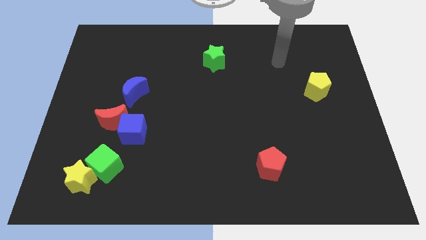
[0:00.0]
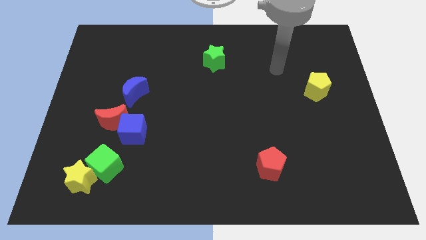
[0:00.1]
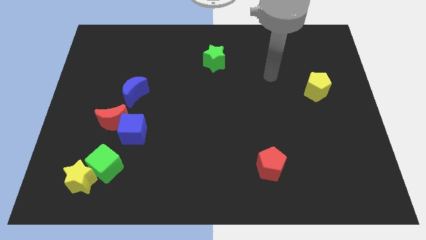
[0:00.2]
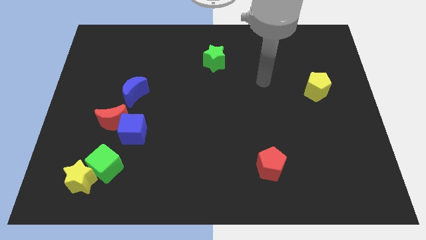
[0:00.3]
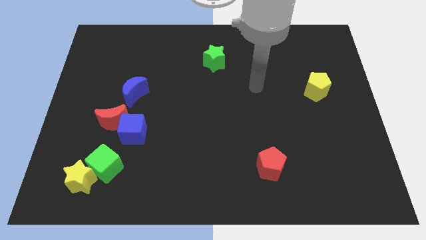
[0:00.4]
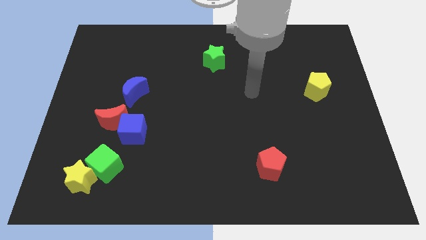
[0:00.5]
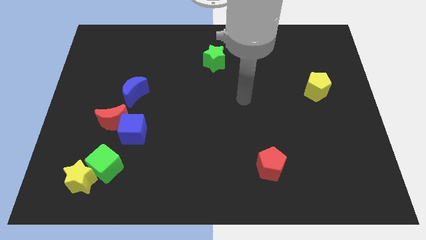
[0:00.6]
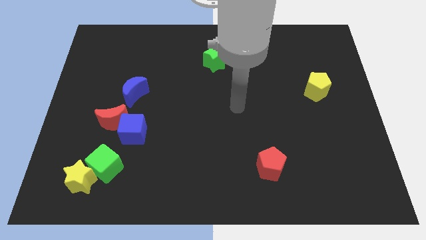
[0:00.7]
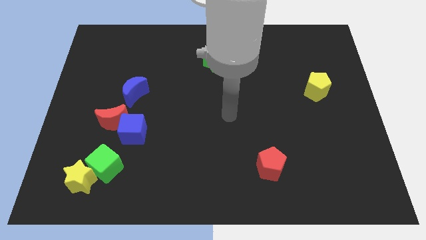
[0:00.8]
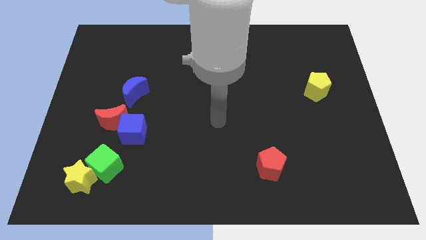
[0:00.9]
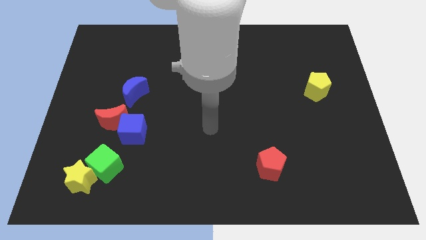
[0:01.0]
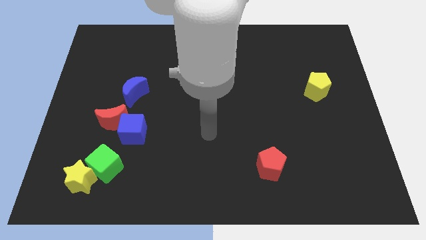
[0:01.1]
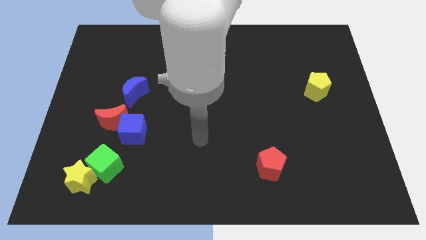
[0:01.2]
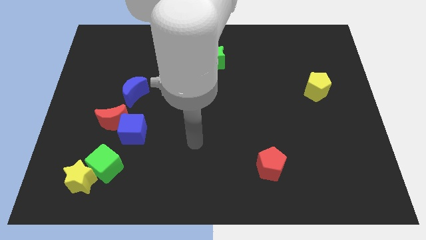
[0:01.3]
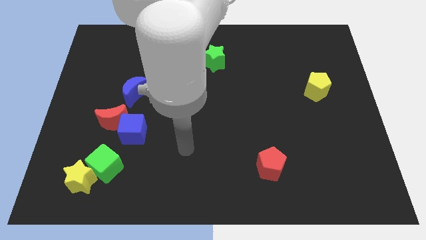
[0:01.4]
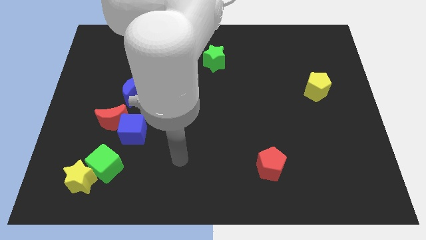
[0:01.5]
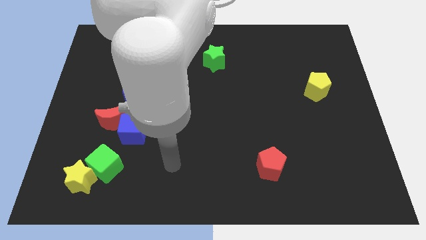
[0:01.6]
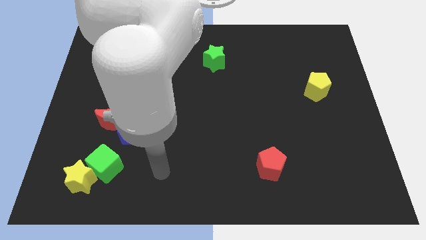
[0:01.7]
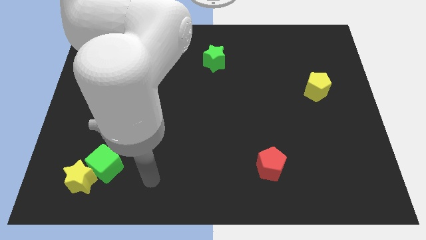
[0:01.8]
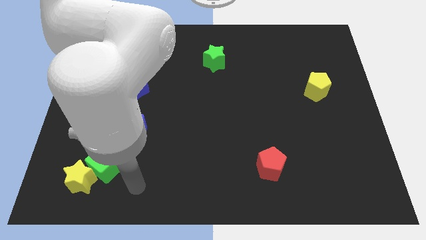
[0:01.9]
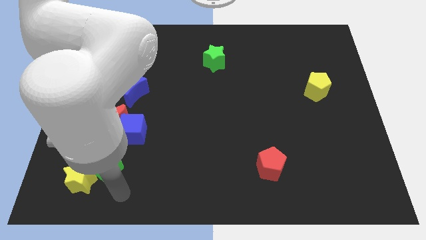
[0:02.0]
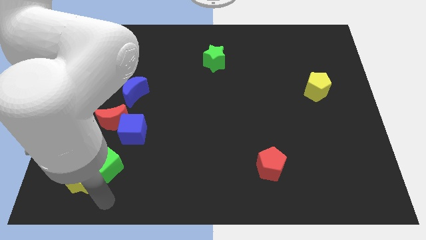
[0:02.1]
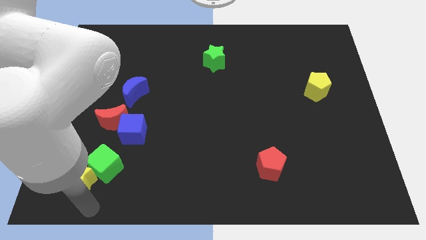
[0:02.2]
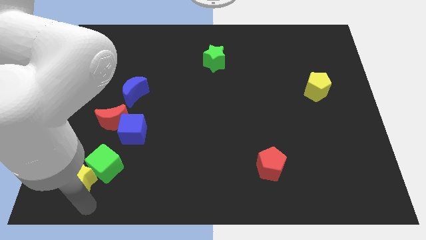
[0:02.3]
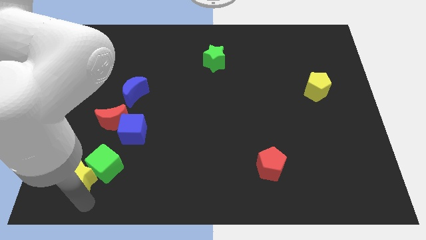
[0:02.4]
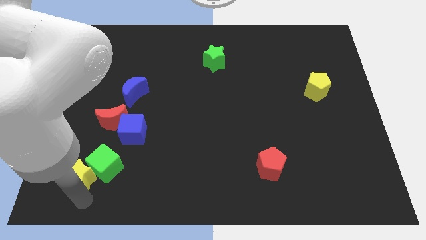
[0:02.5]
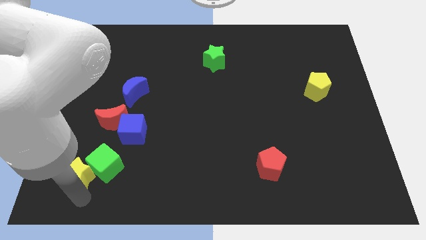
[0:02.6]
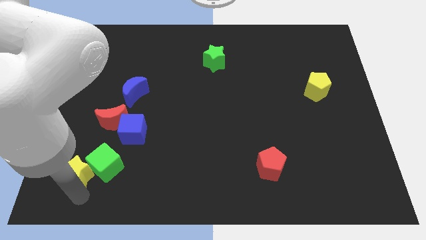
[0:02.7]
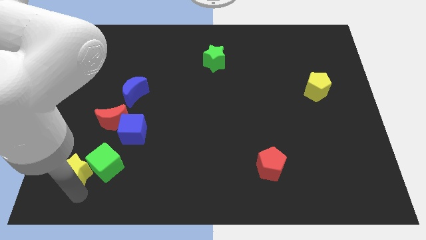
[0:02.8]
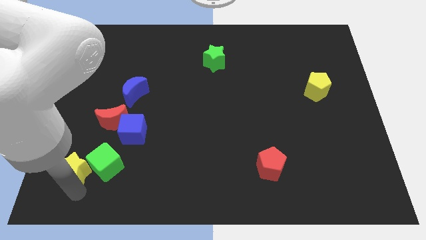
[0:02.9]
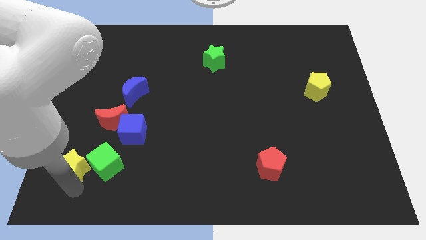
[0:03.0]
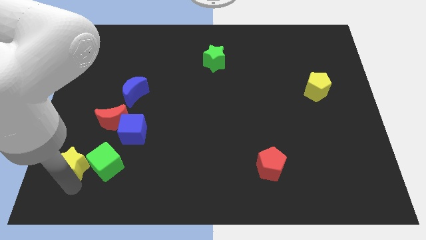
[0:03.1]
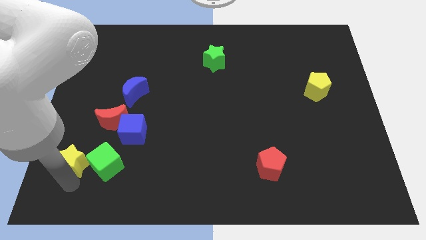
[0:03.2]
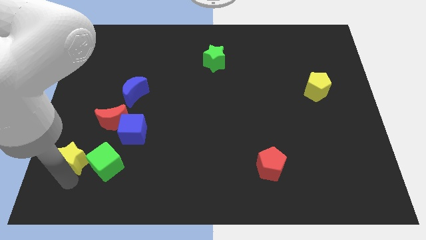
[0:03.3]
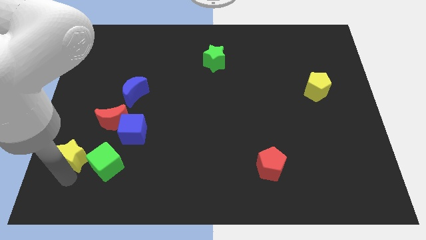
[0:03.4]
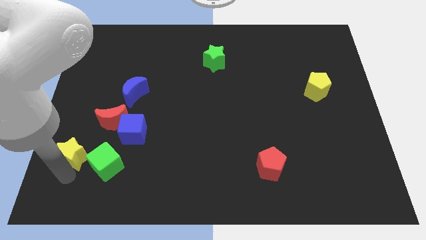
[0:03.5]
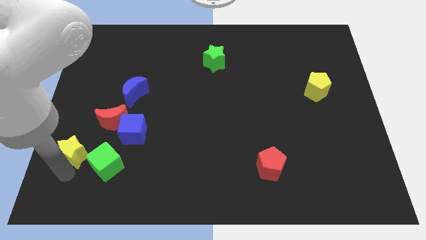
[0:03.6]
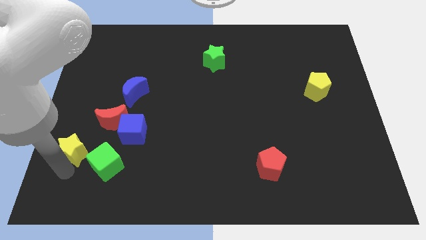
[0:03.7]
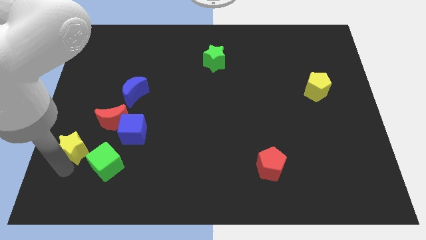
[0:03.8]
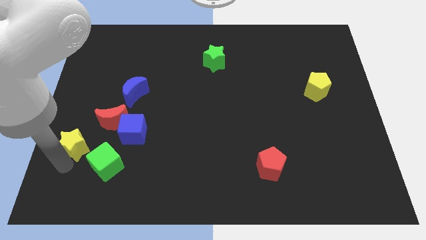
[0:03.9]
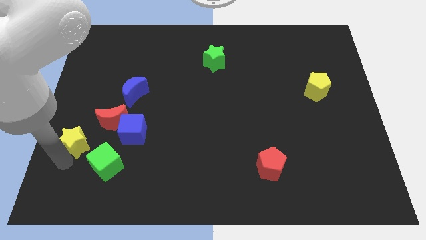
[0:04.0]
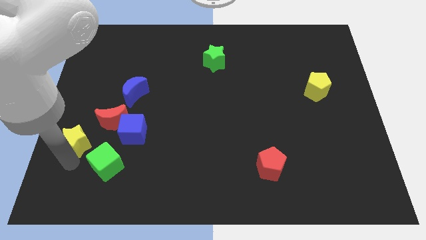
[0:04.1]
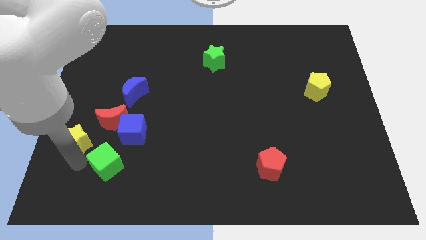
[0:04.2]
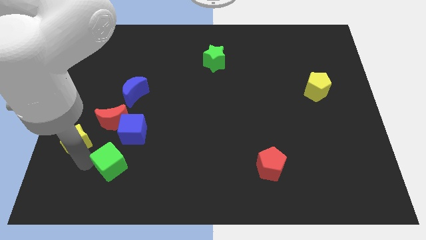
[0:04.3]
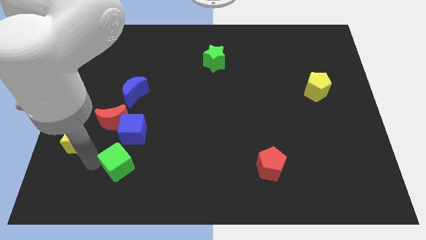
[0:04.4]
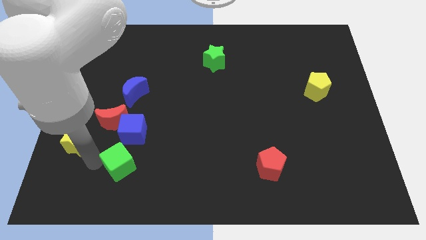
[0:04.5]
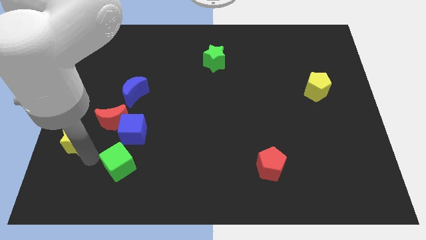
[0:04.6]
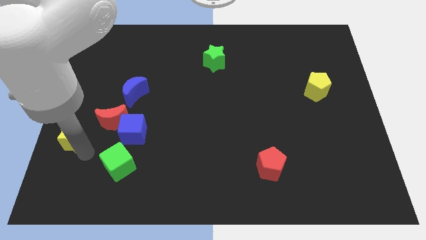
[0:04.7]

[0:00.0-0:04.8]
put the yellow star to the left side of the board

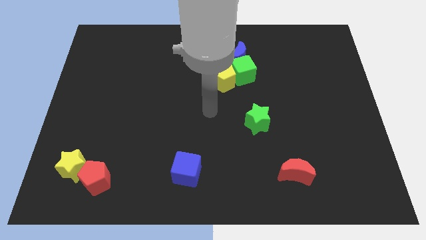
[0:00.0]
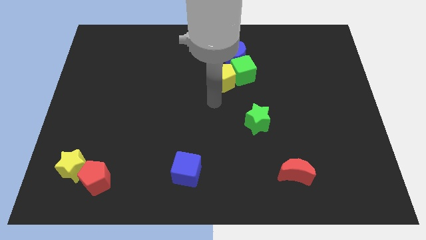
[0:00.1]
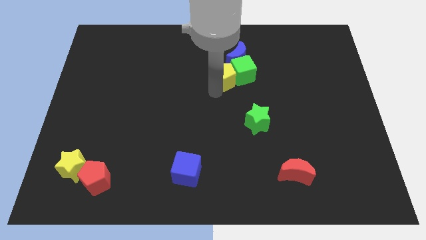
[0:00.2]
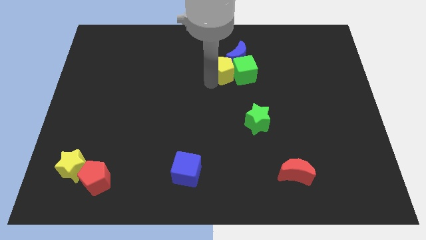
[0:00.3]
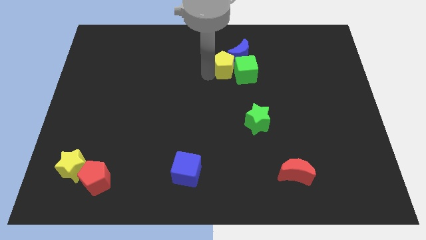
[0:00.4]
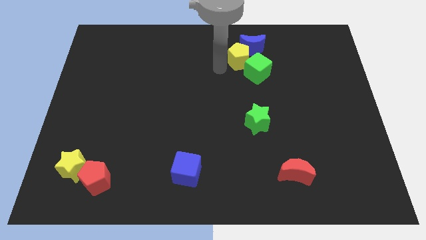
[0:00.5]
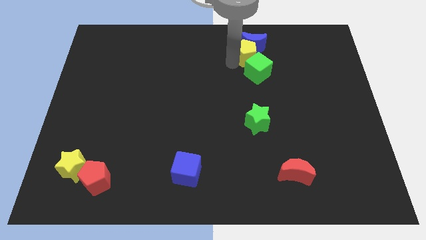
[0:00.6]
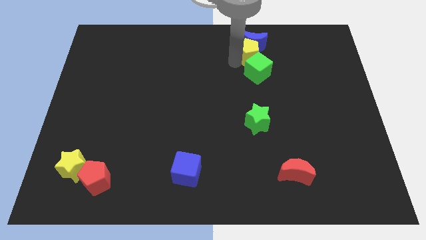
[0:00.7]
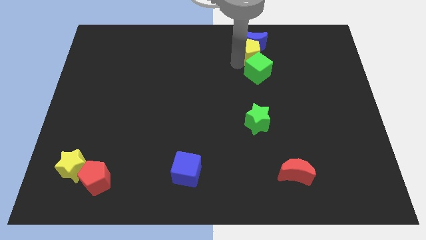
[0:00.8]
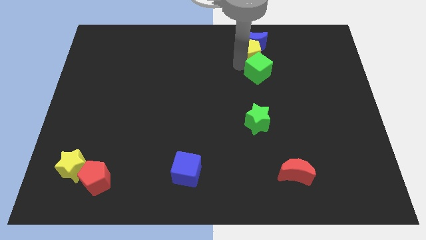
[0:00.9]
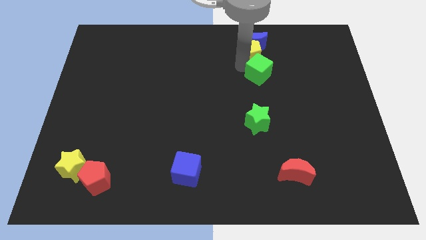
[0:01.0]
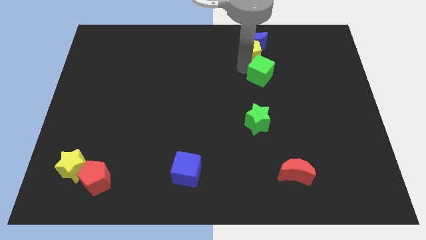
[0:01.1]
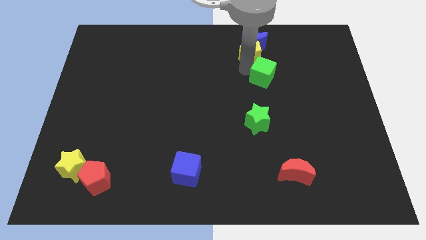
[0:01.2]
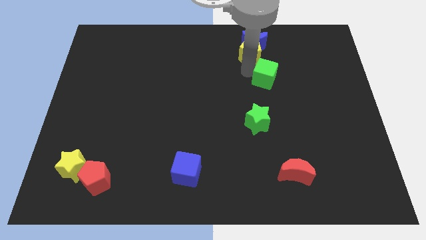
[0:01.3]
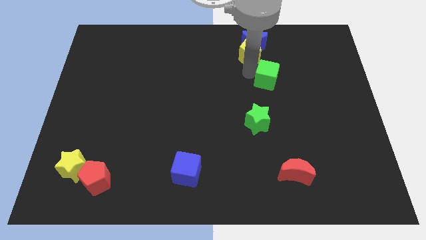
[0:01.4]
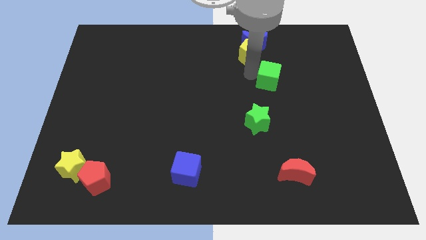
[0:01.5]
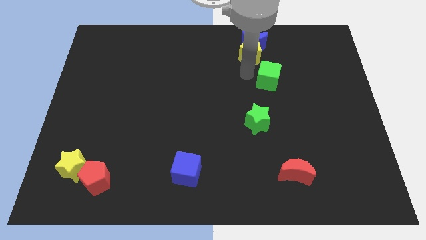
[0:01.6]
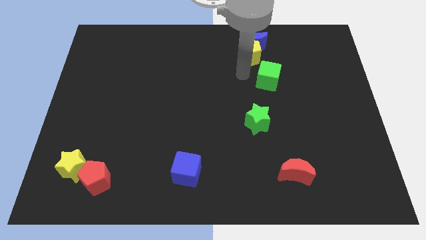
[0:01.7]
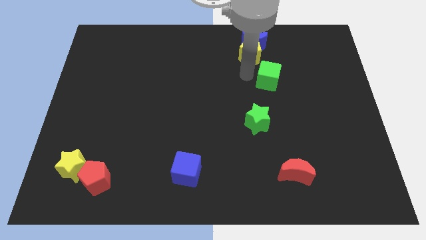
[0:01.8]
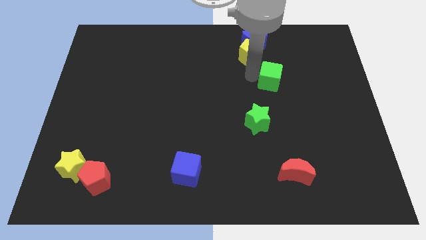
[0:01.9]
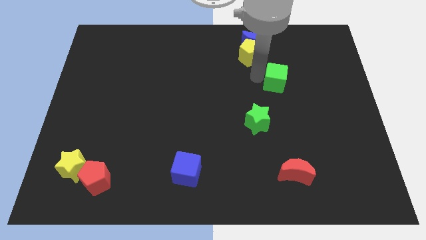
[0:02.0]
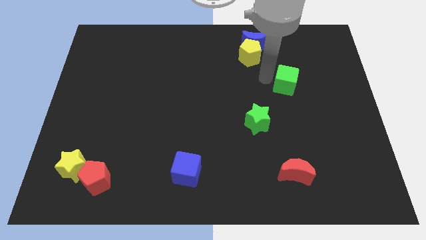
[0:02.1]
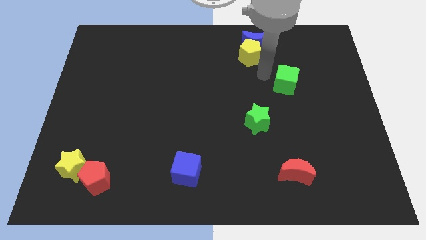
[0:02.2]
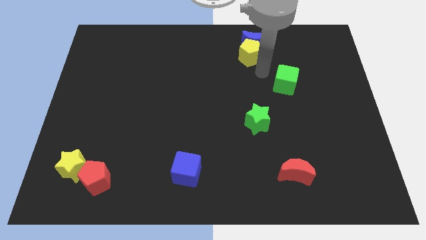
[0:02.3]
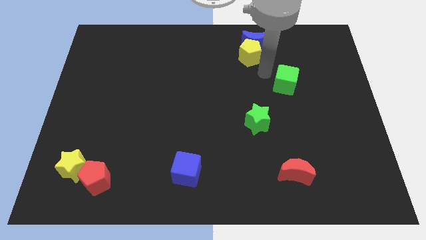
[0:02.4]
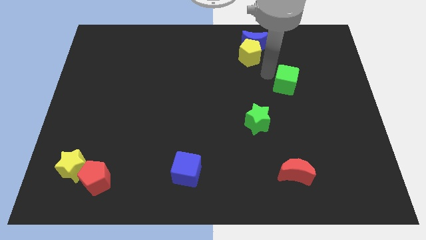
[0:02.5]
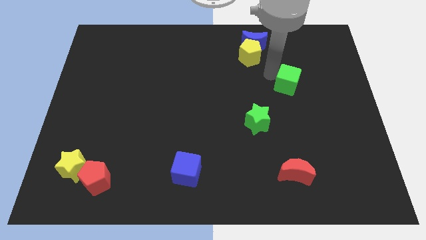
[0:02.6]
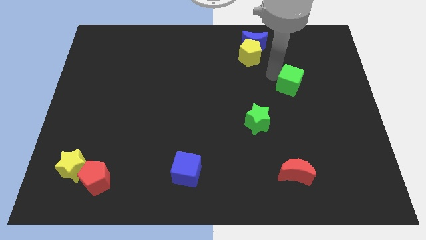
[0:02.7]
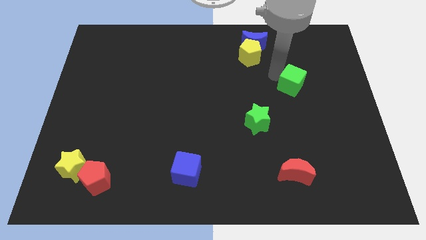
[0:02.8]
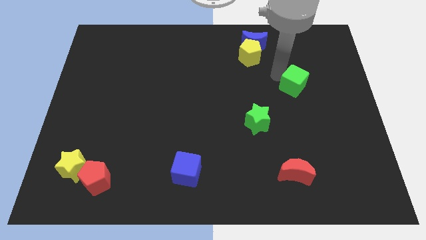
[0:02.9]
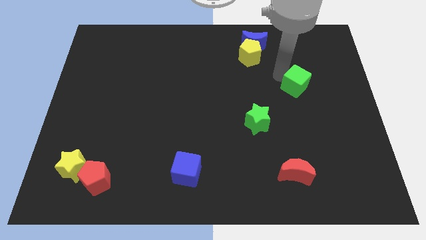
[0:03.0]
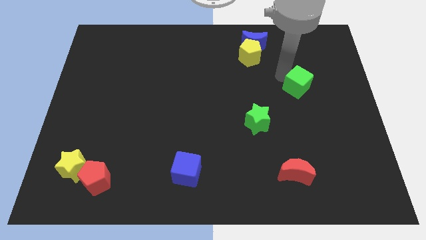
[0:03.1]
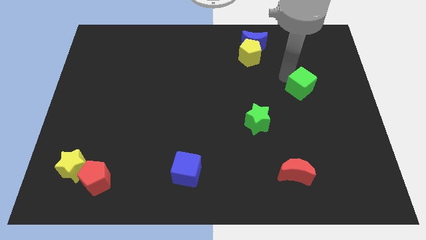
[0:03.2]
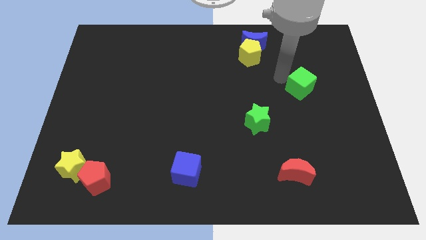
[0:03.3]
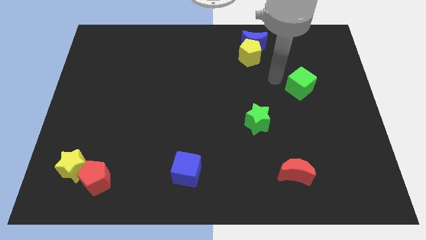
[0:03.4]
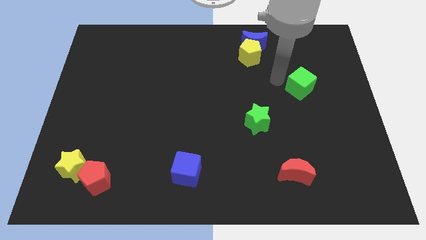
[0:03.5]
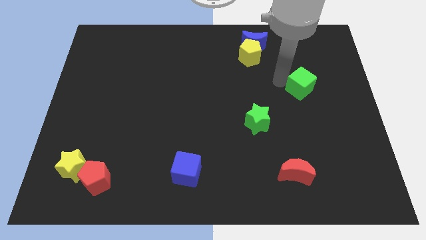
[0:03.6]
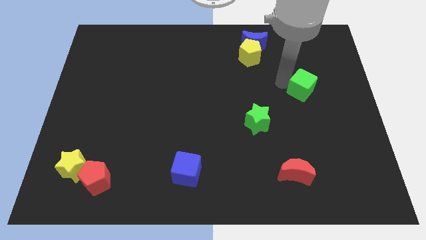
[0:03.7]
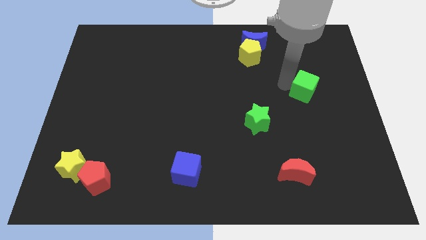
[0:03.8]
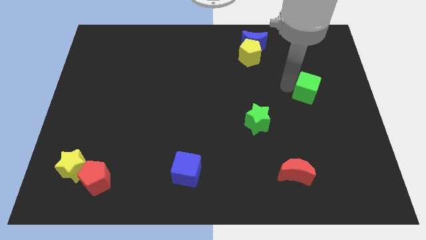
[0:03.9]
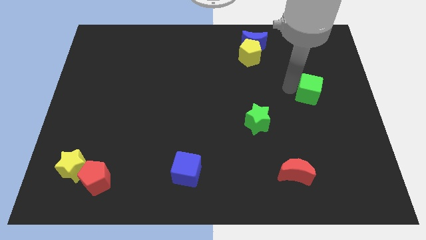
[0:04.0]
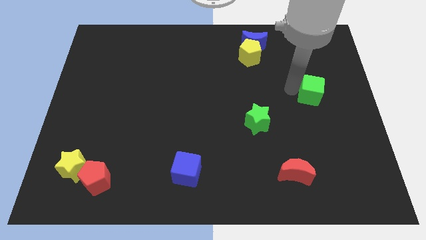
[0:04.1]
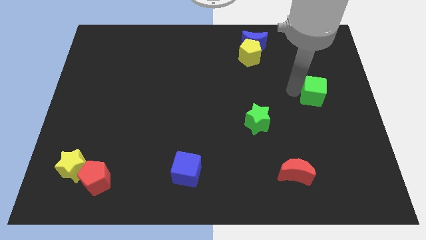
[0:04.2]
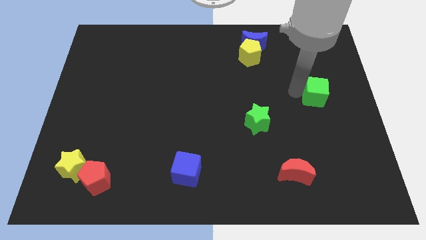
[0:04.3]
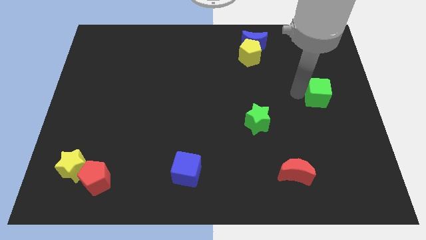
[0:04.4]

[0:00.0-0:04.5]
slide the green cube to the right side of the board
